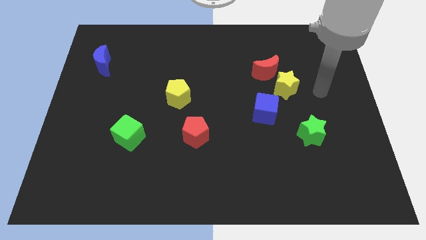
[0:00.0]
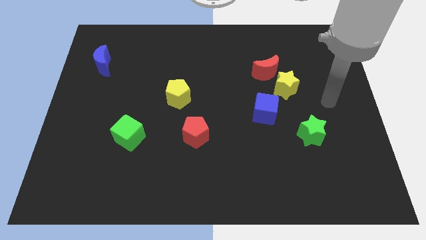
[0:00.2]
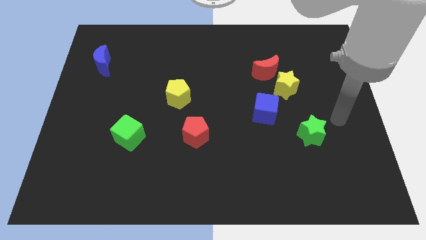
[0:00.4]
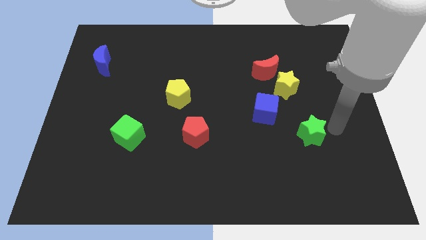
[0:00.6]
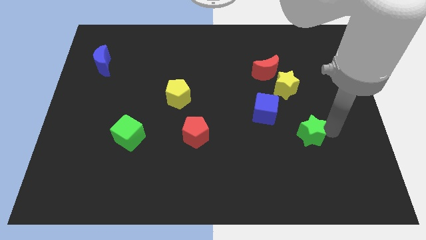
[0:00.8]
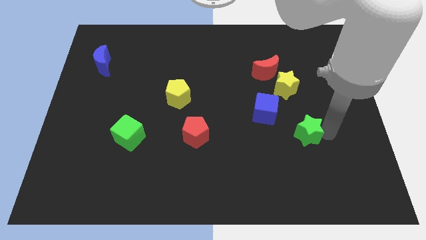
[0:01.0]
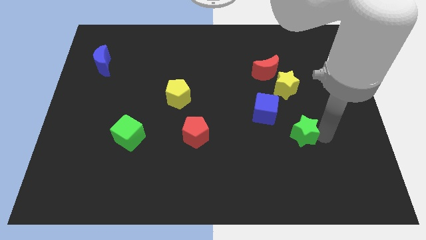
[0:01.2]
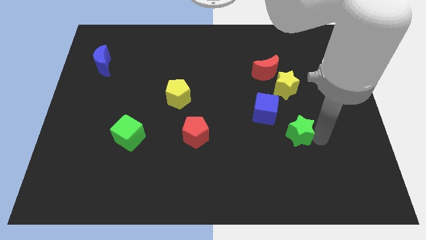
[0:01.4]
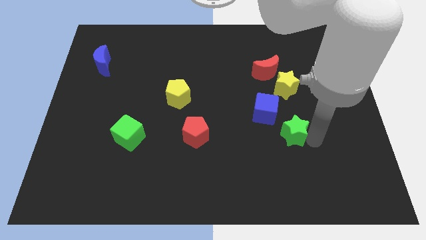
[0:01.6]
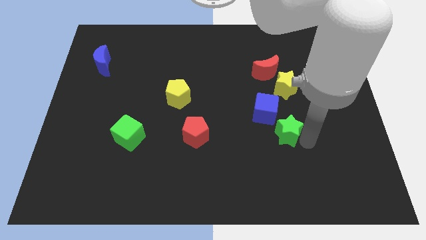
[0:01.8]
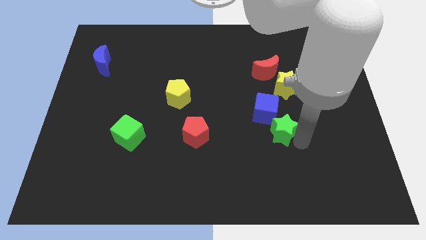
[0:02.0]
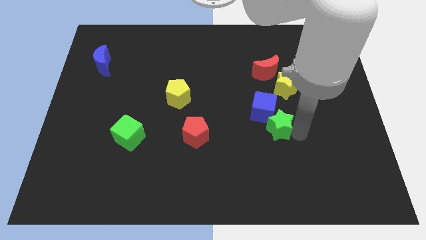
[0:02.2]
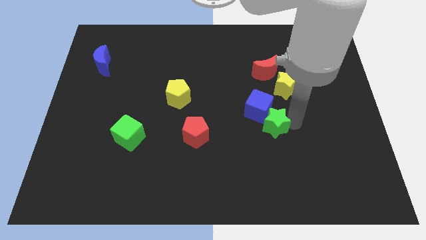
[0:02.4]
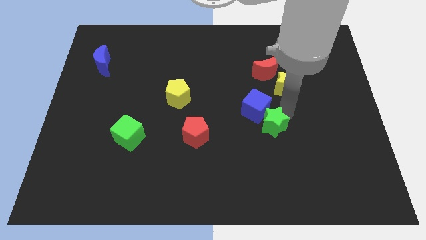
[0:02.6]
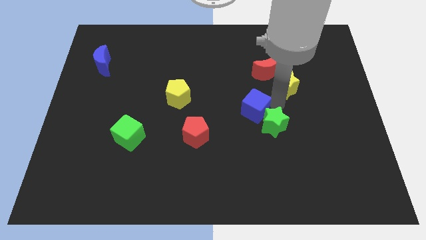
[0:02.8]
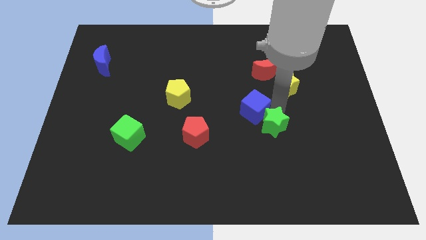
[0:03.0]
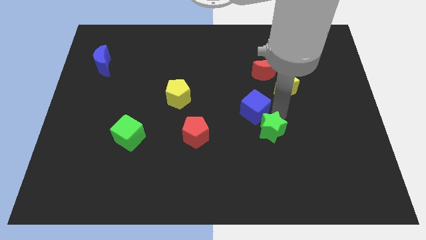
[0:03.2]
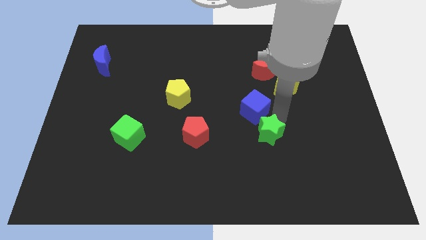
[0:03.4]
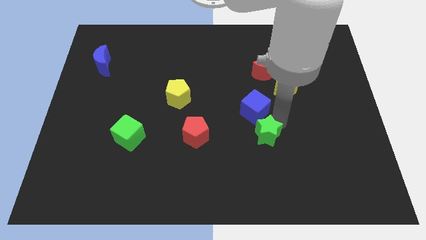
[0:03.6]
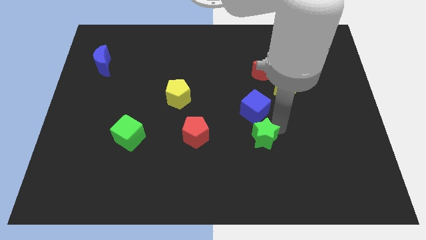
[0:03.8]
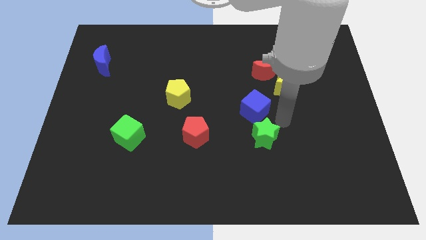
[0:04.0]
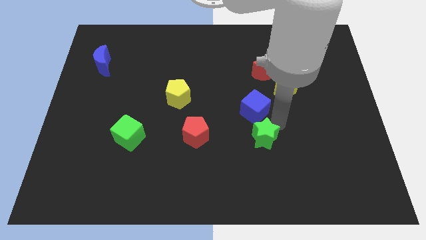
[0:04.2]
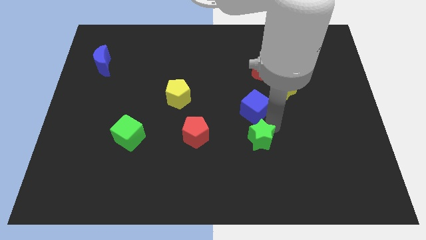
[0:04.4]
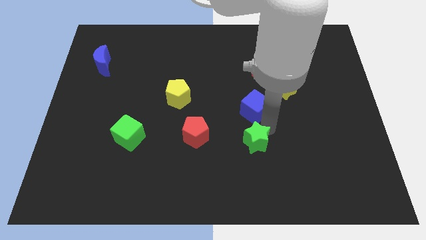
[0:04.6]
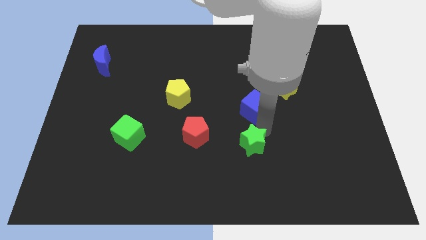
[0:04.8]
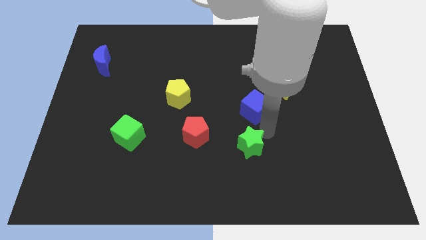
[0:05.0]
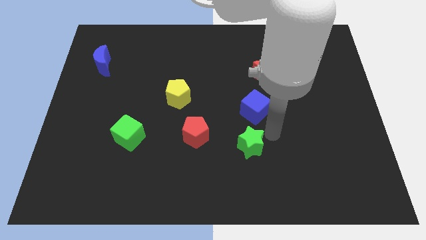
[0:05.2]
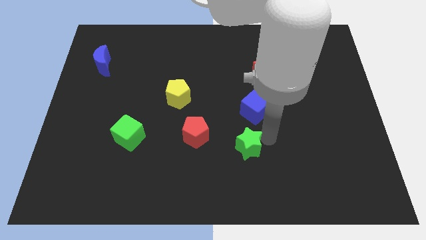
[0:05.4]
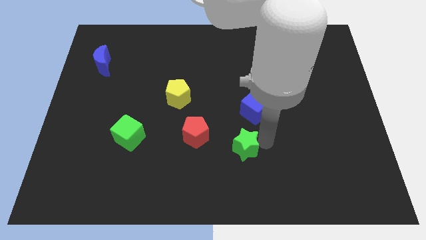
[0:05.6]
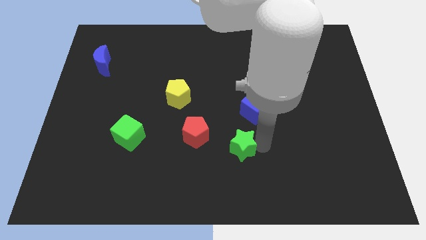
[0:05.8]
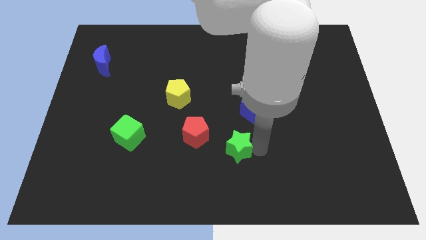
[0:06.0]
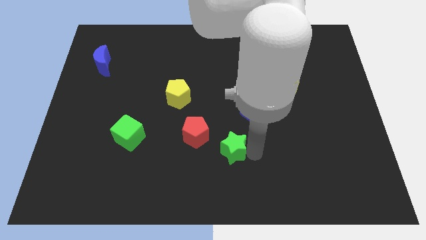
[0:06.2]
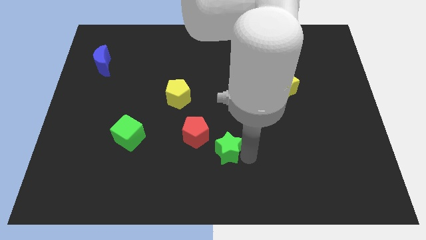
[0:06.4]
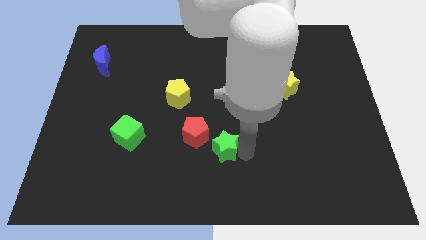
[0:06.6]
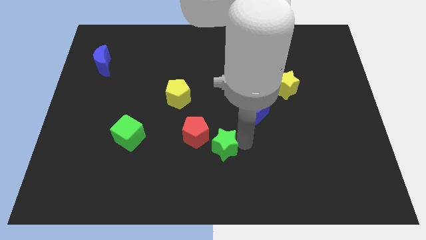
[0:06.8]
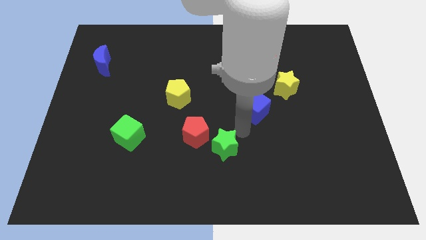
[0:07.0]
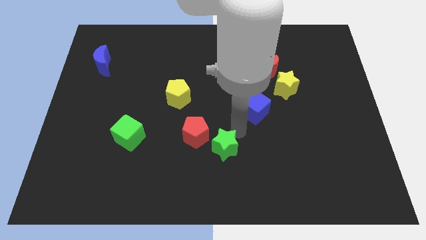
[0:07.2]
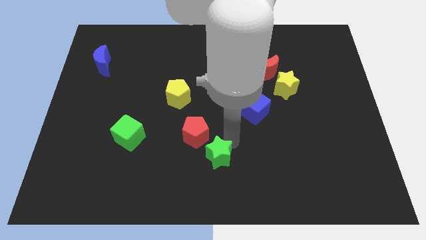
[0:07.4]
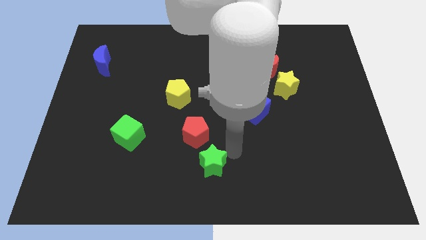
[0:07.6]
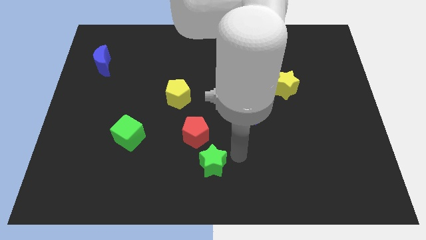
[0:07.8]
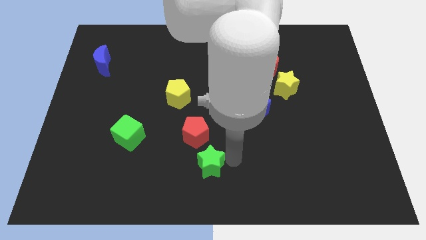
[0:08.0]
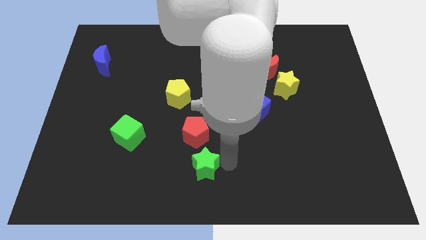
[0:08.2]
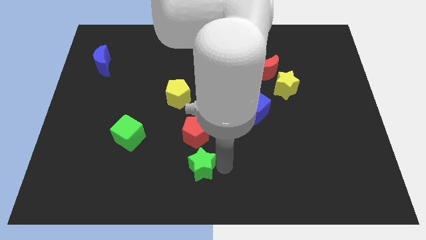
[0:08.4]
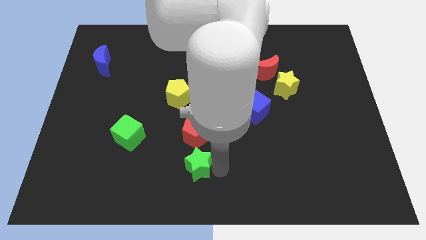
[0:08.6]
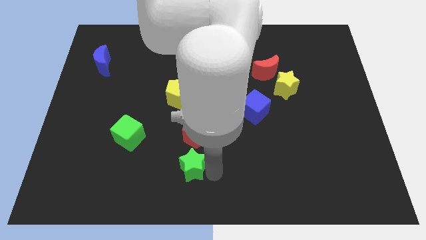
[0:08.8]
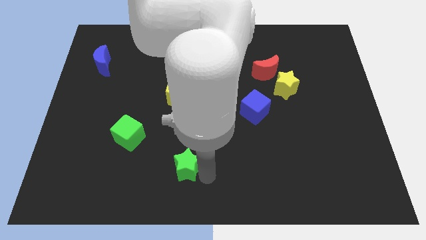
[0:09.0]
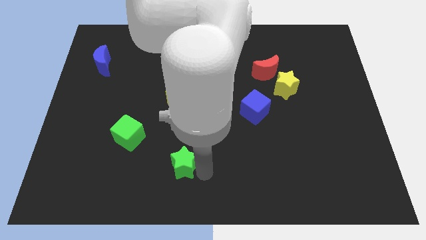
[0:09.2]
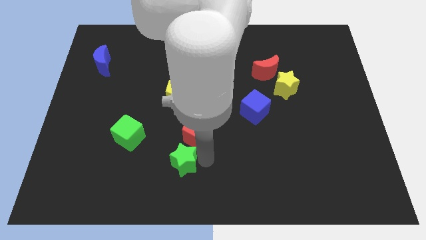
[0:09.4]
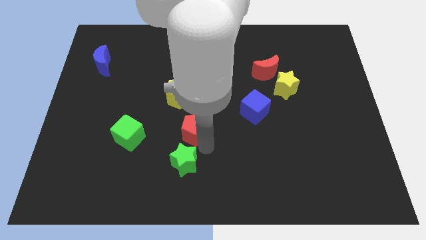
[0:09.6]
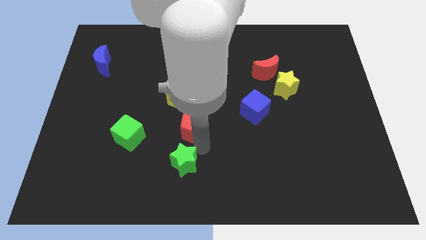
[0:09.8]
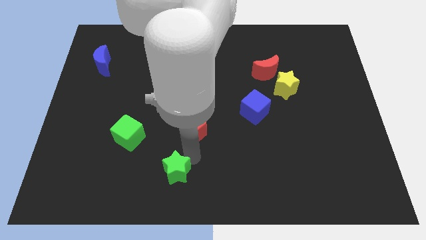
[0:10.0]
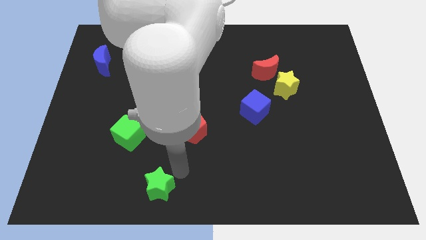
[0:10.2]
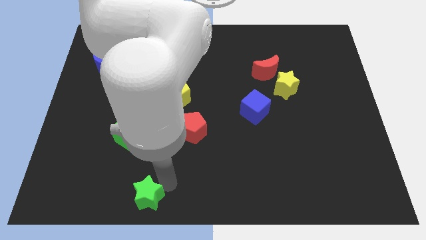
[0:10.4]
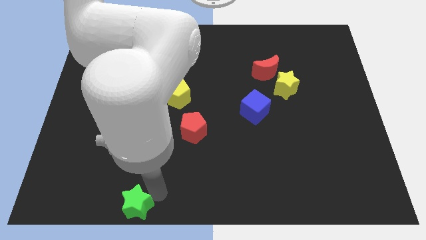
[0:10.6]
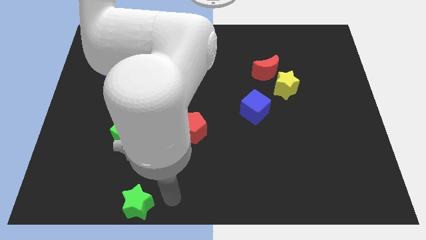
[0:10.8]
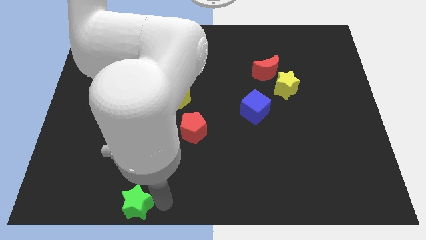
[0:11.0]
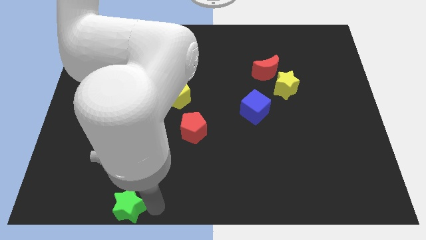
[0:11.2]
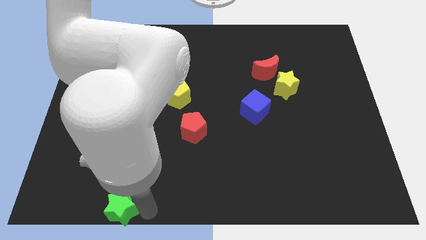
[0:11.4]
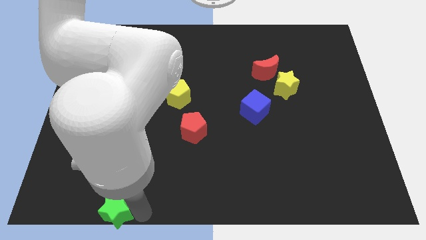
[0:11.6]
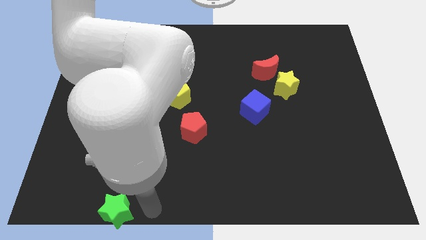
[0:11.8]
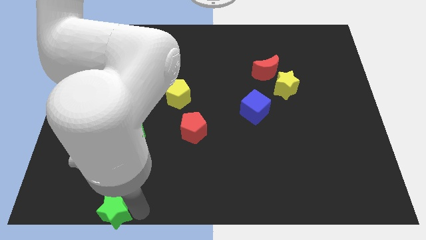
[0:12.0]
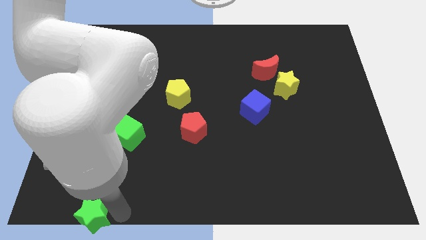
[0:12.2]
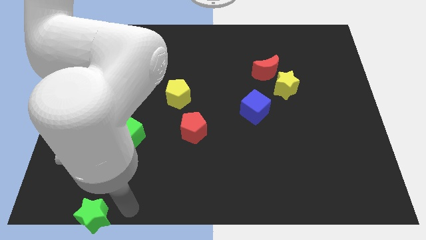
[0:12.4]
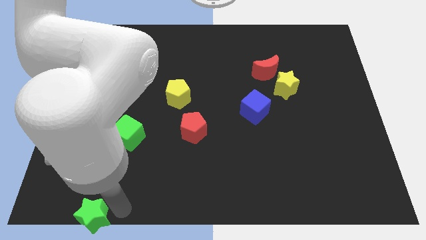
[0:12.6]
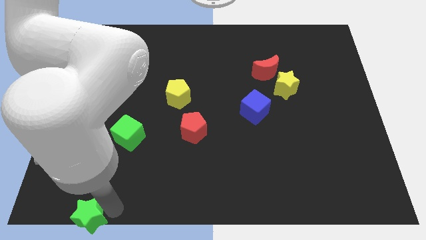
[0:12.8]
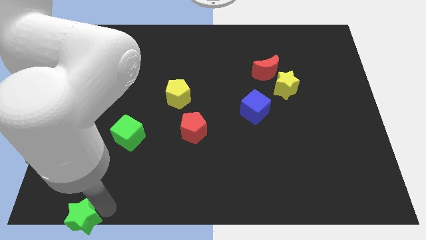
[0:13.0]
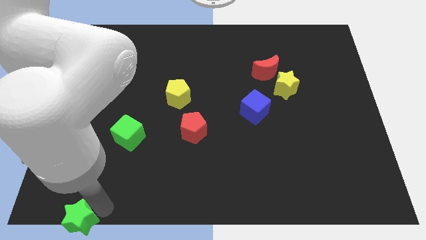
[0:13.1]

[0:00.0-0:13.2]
slide the green star to the bottom left corner

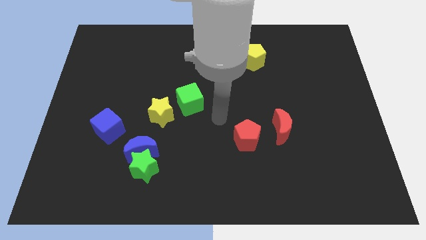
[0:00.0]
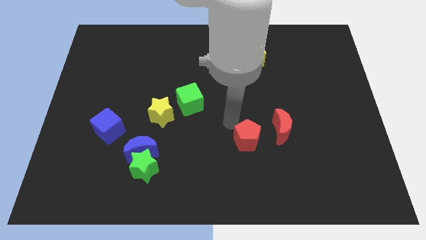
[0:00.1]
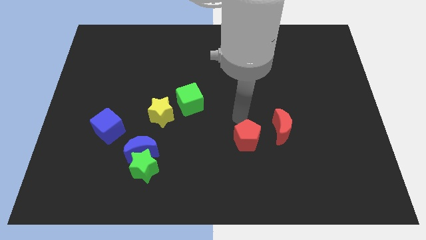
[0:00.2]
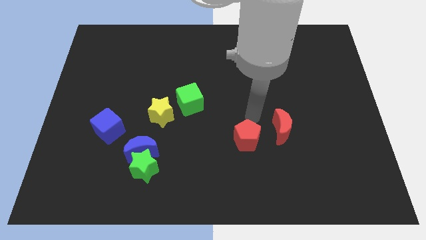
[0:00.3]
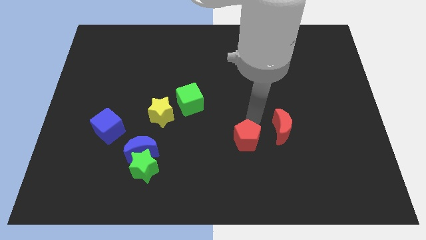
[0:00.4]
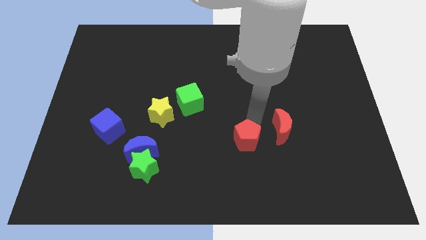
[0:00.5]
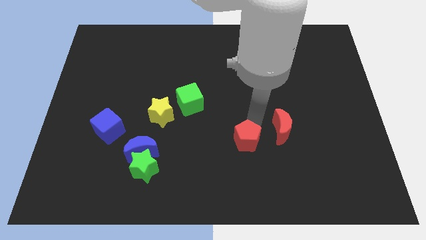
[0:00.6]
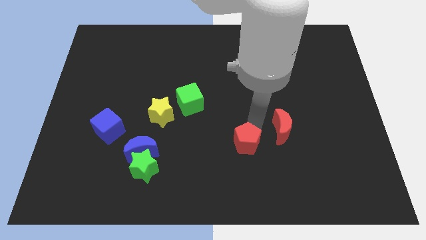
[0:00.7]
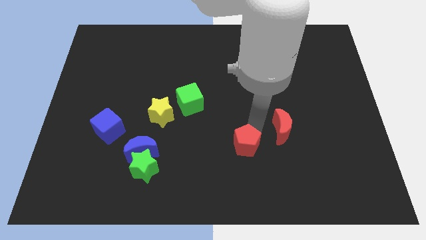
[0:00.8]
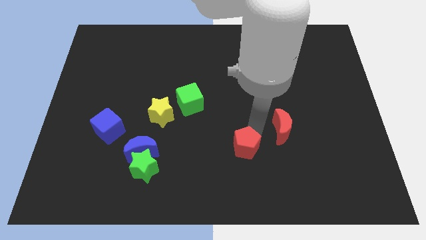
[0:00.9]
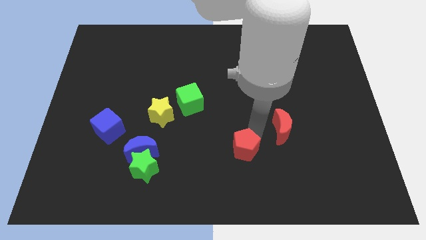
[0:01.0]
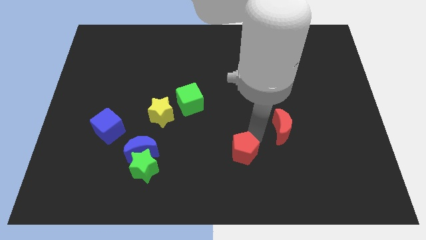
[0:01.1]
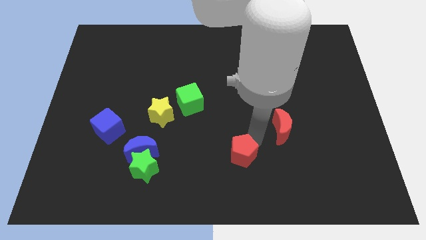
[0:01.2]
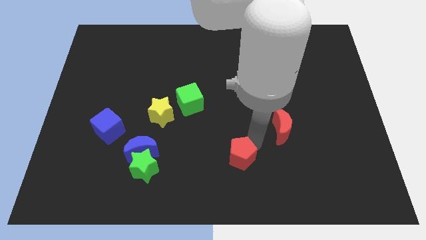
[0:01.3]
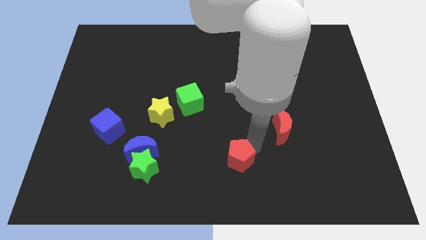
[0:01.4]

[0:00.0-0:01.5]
put the red pentagon to the bottom side
